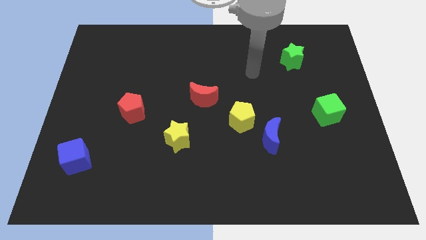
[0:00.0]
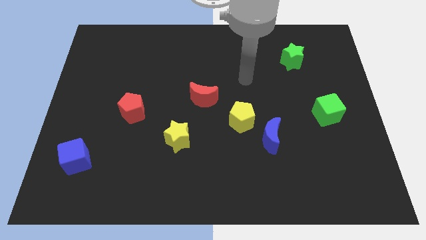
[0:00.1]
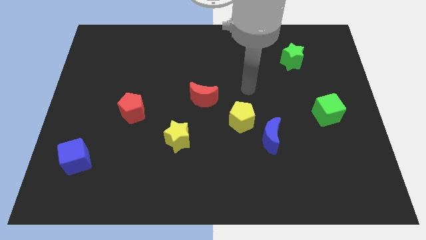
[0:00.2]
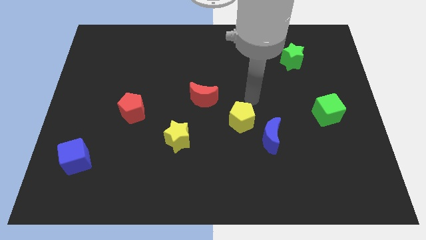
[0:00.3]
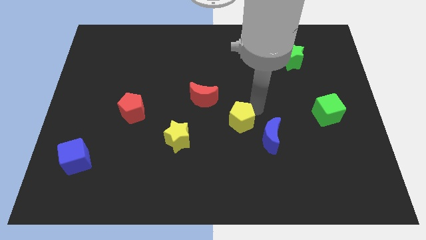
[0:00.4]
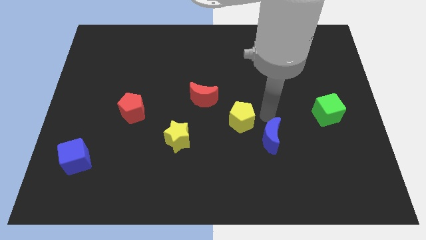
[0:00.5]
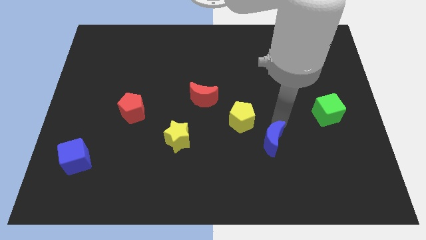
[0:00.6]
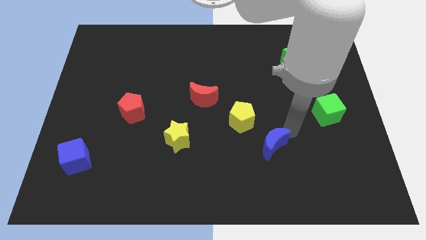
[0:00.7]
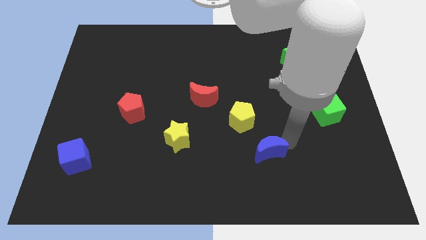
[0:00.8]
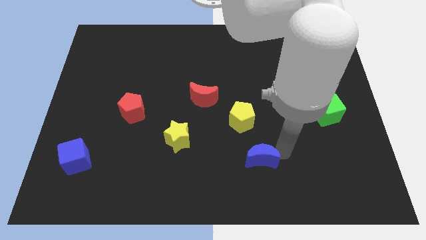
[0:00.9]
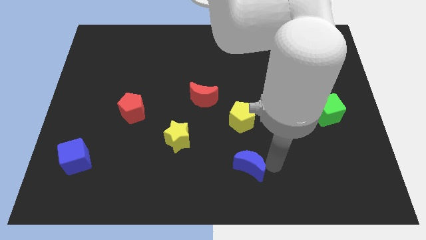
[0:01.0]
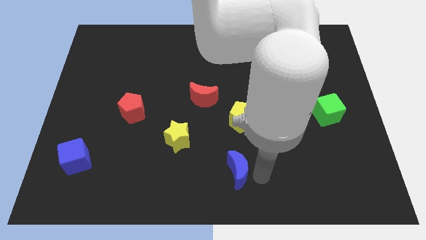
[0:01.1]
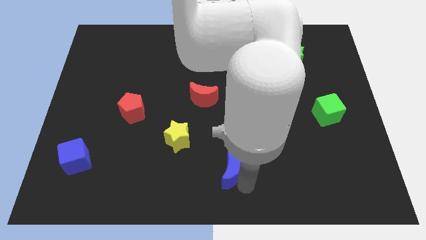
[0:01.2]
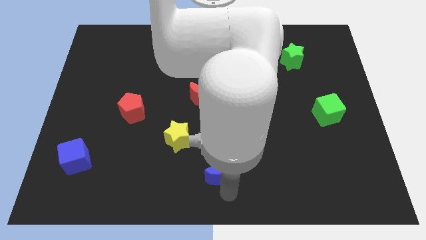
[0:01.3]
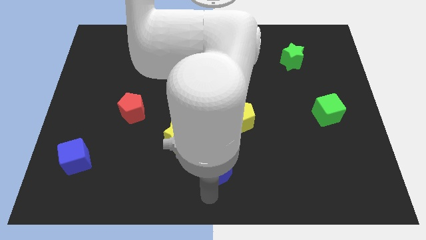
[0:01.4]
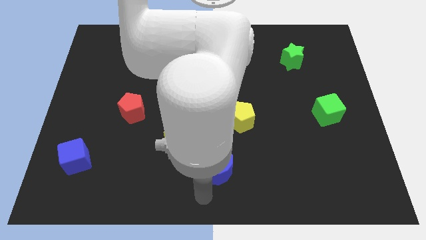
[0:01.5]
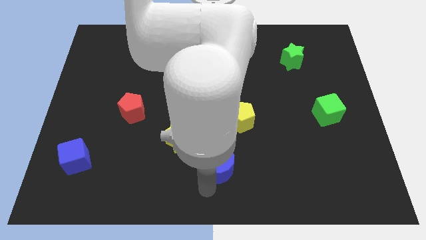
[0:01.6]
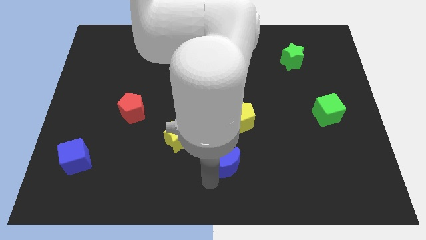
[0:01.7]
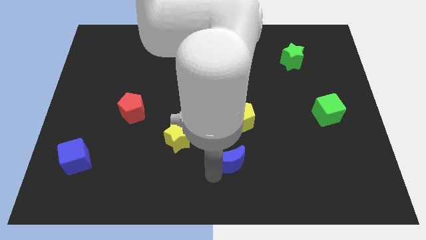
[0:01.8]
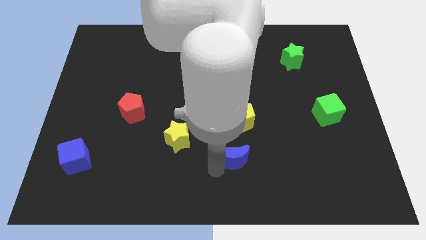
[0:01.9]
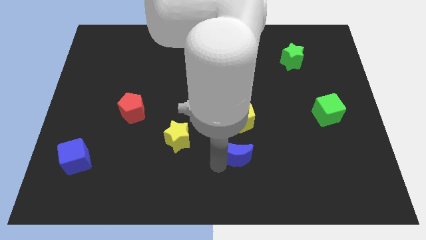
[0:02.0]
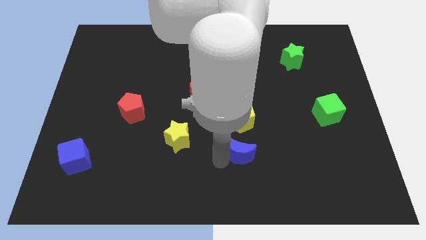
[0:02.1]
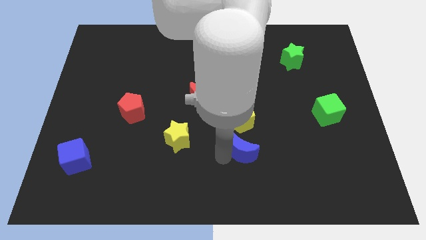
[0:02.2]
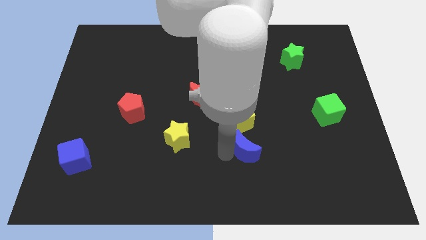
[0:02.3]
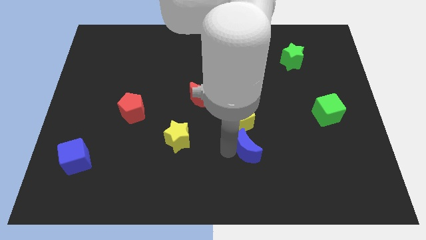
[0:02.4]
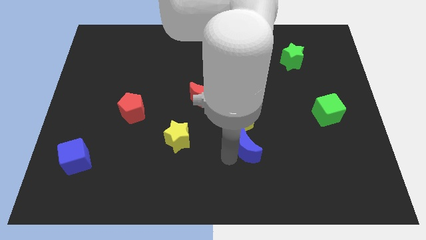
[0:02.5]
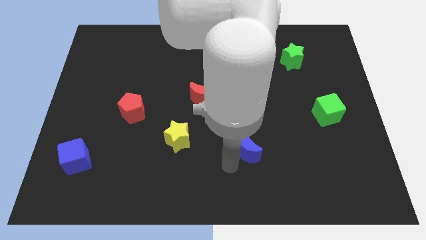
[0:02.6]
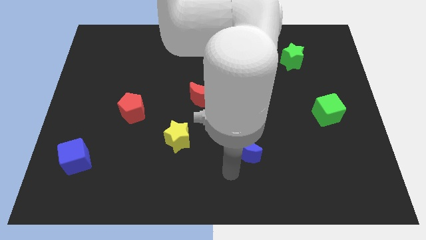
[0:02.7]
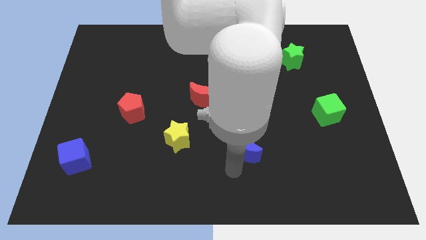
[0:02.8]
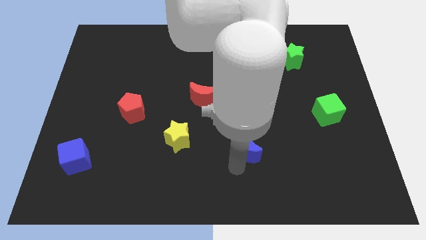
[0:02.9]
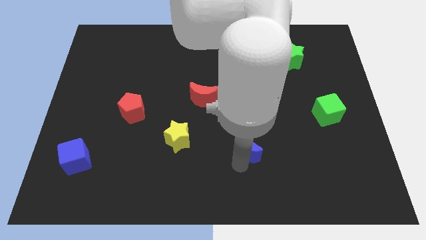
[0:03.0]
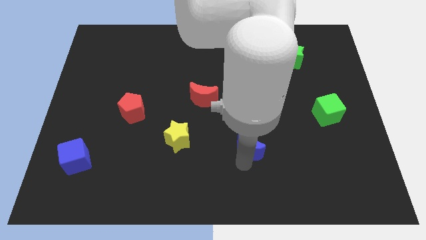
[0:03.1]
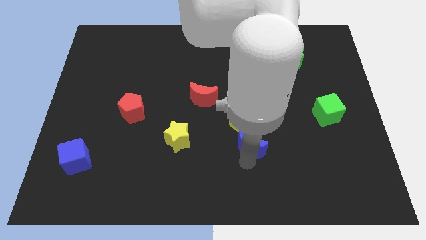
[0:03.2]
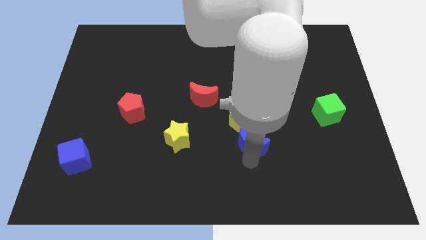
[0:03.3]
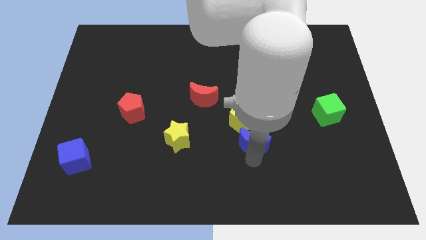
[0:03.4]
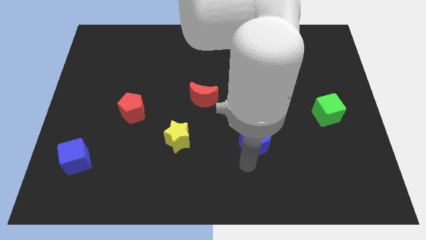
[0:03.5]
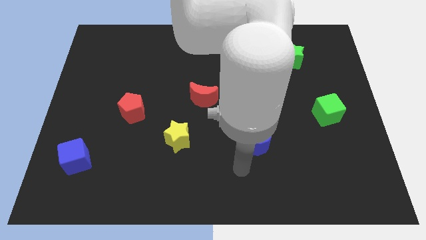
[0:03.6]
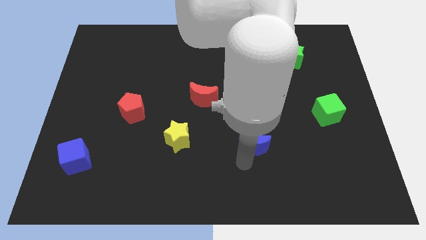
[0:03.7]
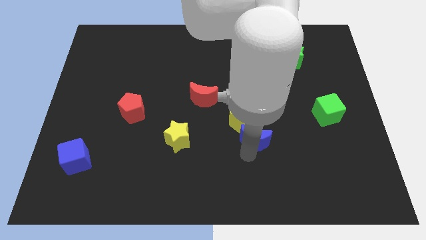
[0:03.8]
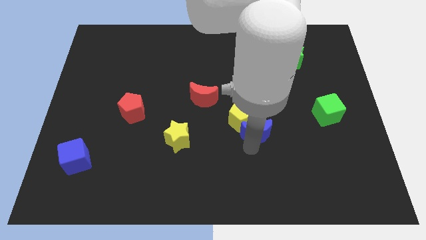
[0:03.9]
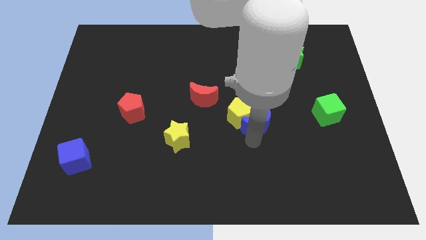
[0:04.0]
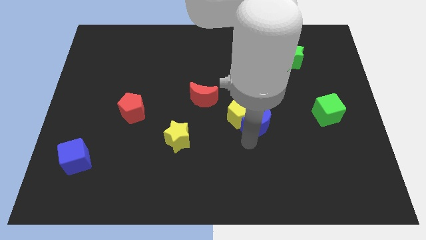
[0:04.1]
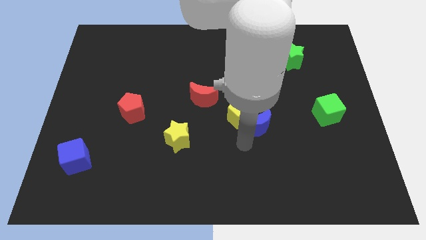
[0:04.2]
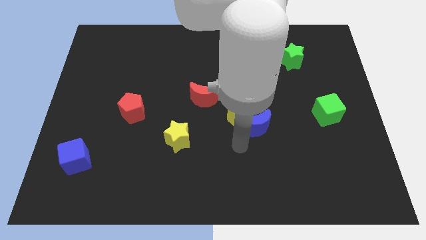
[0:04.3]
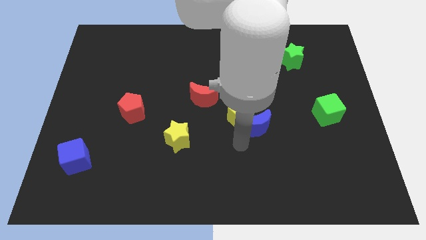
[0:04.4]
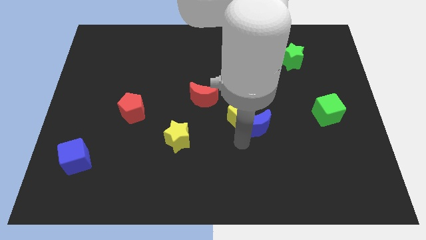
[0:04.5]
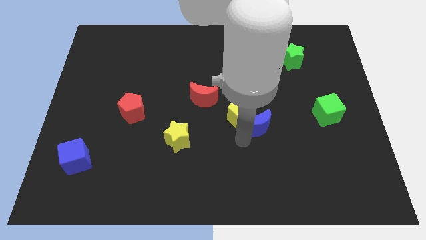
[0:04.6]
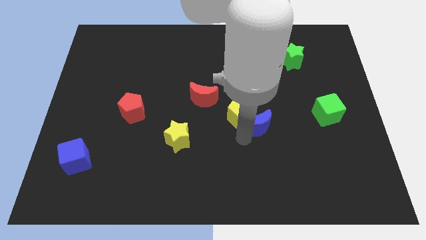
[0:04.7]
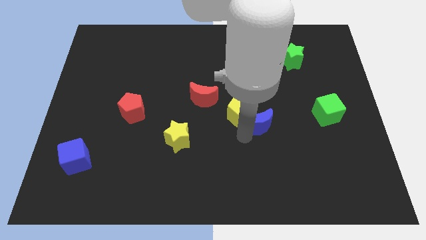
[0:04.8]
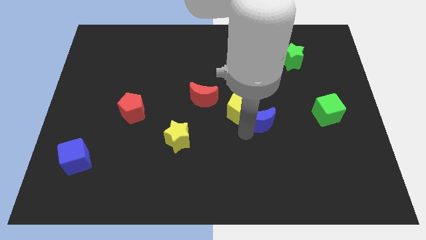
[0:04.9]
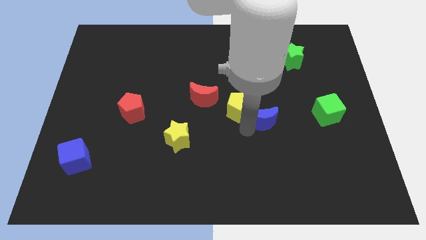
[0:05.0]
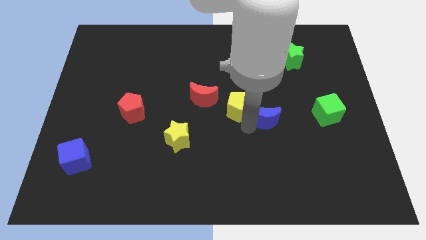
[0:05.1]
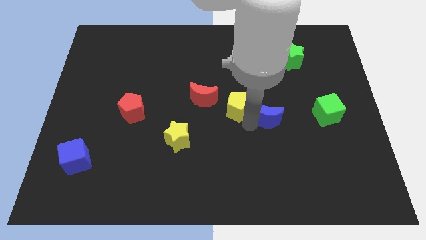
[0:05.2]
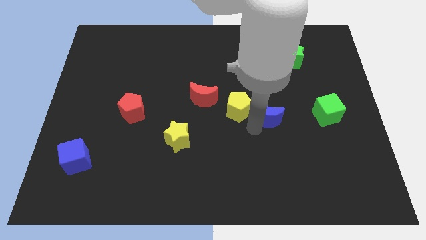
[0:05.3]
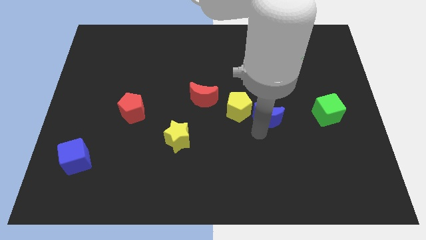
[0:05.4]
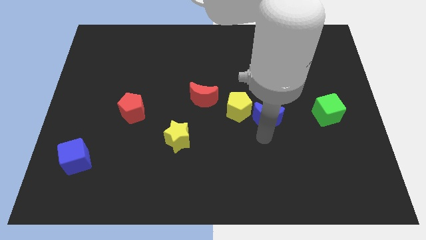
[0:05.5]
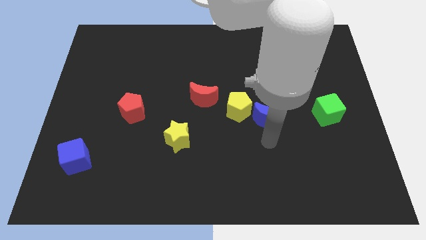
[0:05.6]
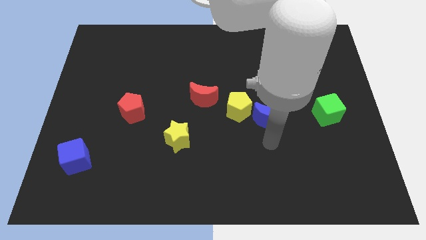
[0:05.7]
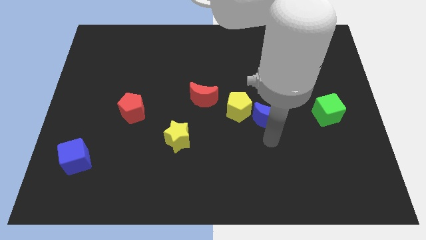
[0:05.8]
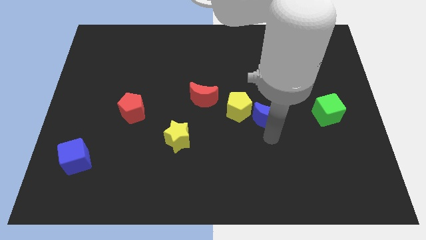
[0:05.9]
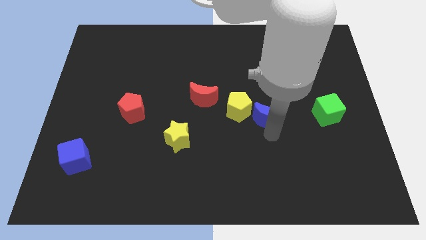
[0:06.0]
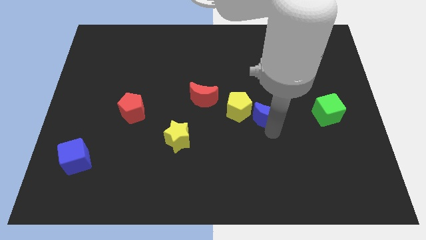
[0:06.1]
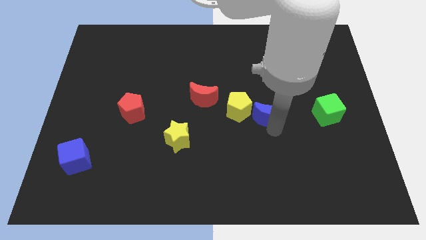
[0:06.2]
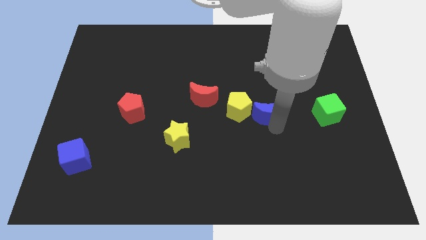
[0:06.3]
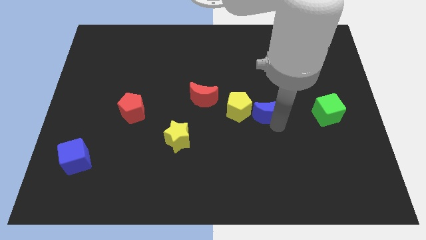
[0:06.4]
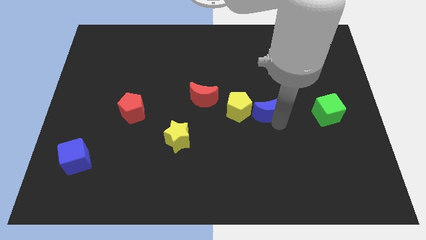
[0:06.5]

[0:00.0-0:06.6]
slide the blue moon upwards a bit

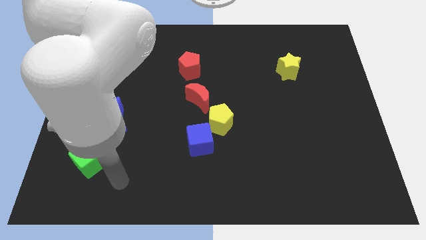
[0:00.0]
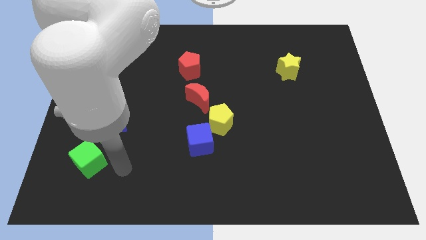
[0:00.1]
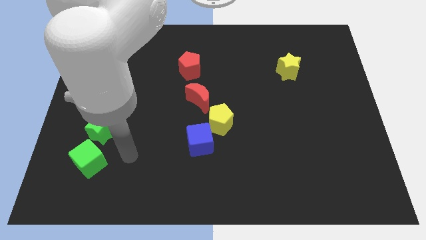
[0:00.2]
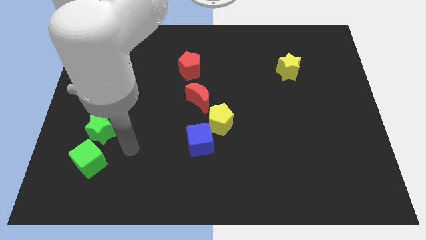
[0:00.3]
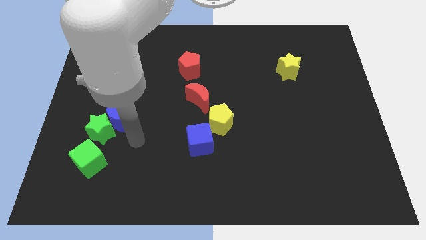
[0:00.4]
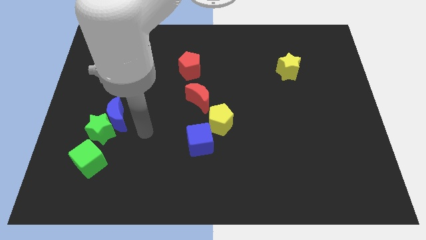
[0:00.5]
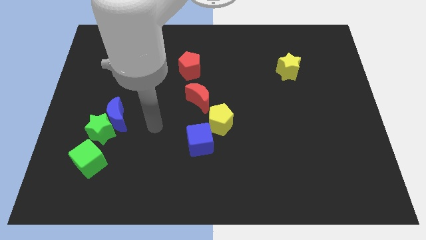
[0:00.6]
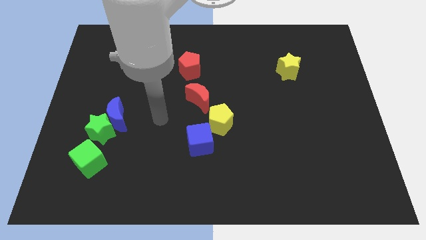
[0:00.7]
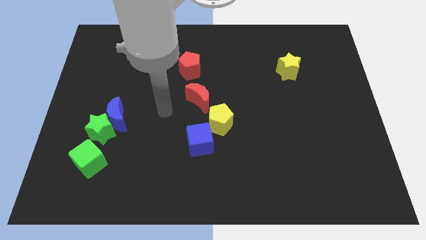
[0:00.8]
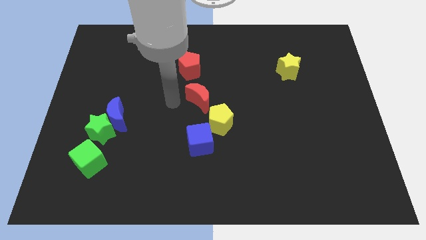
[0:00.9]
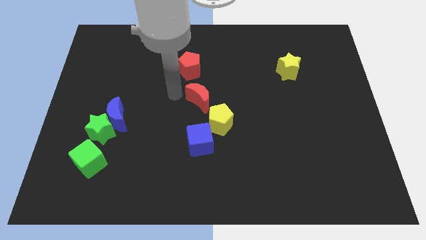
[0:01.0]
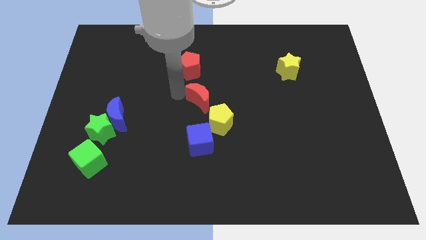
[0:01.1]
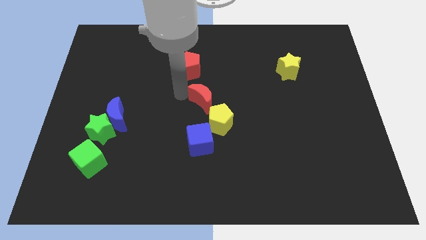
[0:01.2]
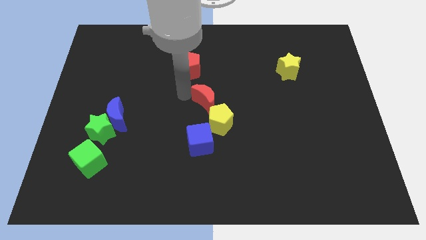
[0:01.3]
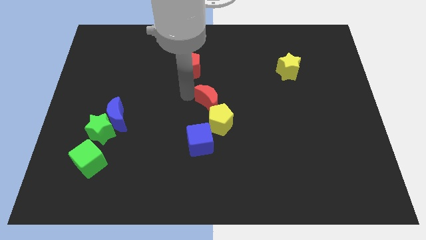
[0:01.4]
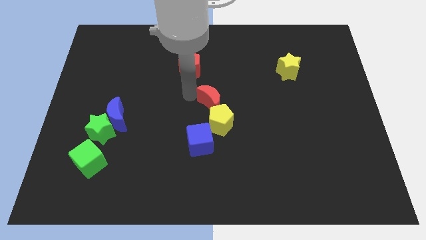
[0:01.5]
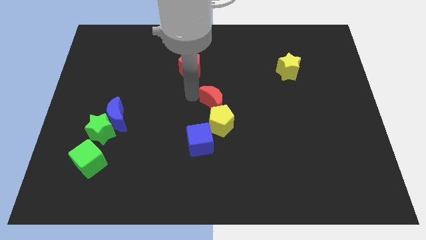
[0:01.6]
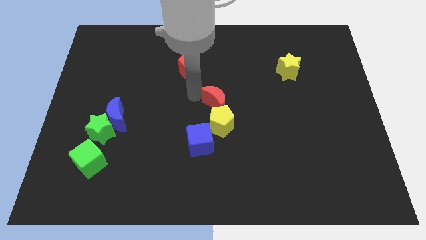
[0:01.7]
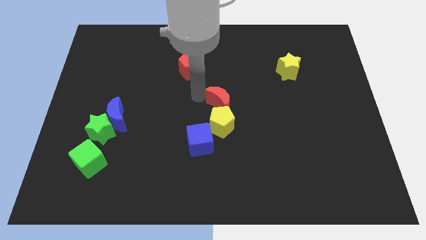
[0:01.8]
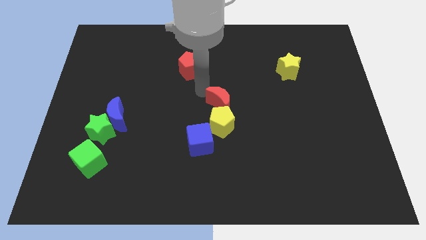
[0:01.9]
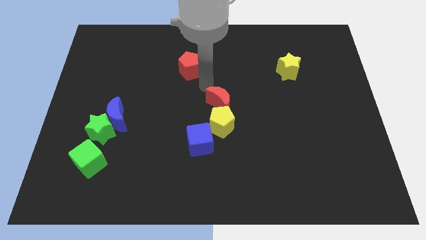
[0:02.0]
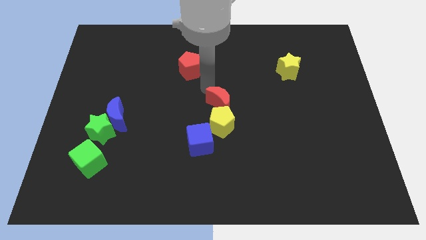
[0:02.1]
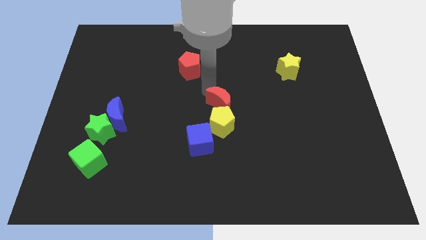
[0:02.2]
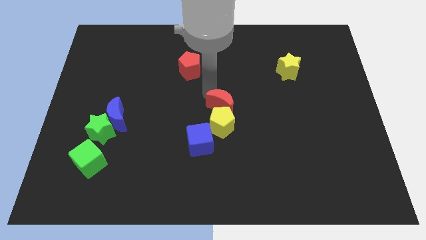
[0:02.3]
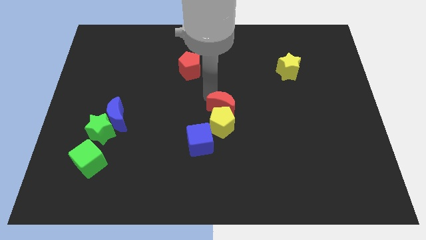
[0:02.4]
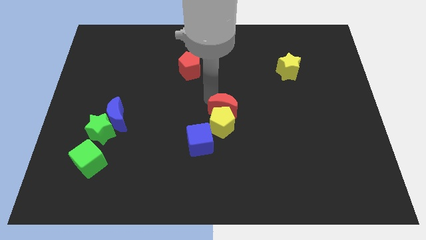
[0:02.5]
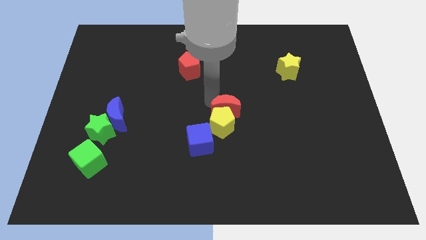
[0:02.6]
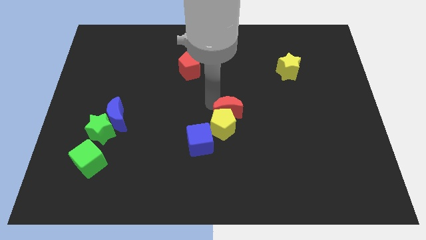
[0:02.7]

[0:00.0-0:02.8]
slightly slide the red moon downwards and then right
